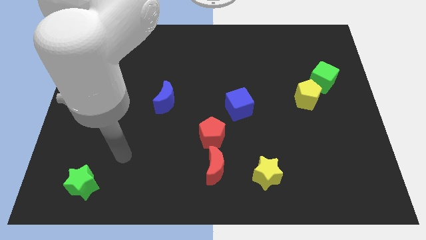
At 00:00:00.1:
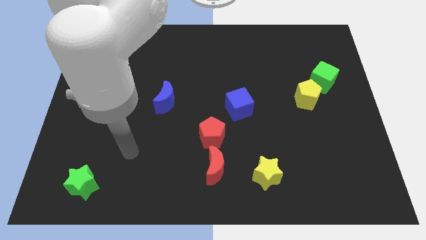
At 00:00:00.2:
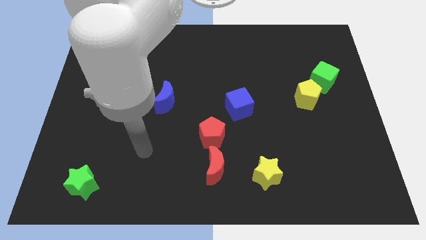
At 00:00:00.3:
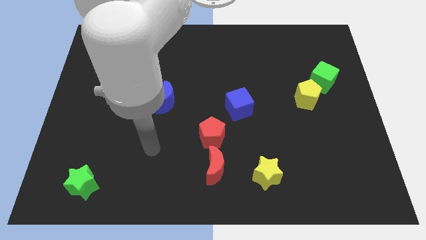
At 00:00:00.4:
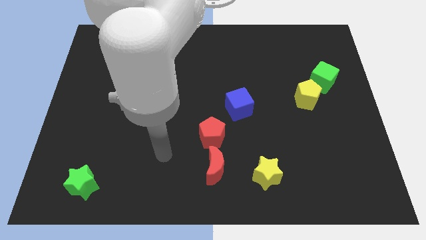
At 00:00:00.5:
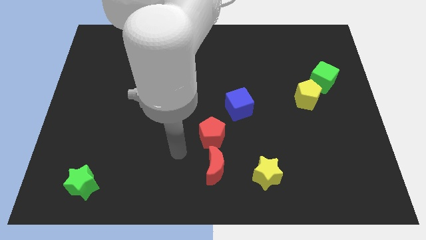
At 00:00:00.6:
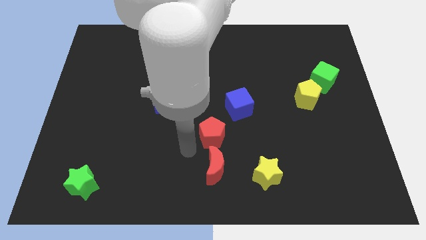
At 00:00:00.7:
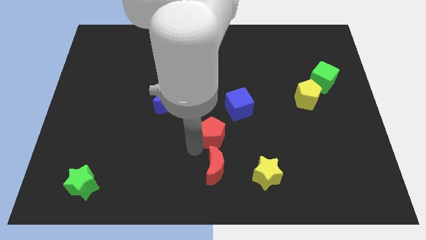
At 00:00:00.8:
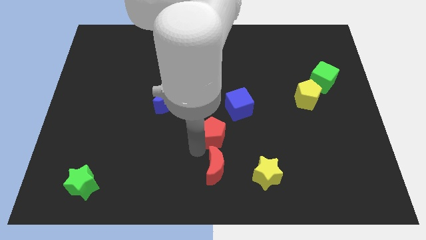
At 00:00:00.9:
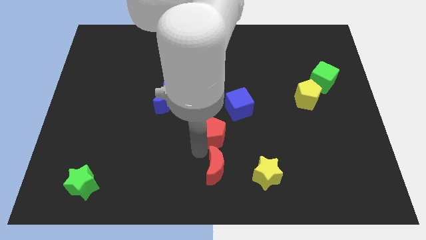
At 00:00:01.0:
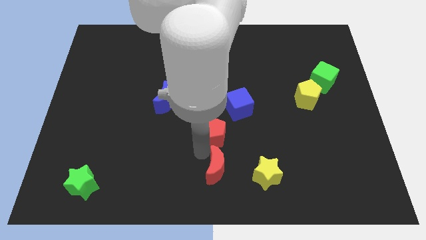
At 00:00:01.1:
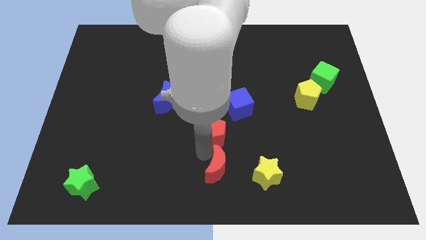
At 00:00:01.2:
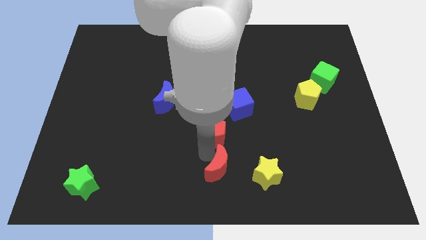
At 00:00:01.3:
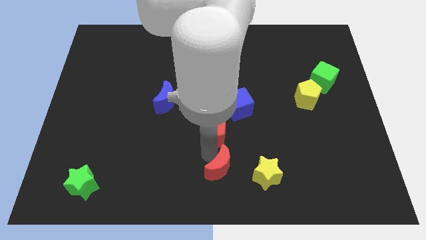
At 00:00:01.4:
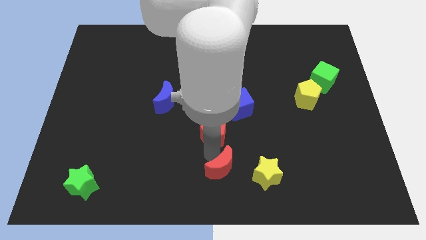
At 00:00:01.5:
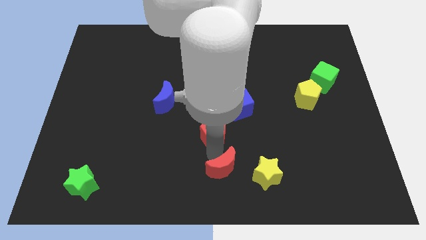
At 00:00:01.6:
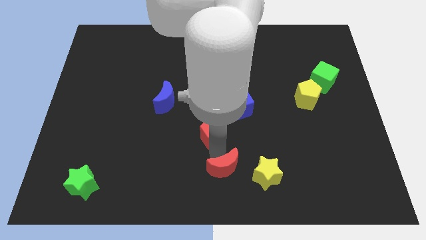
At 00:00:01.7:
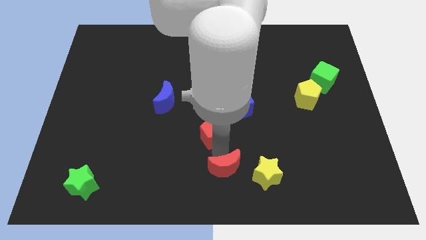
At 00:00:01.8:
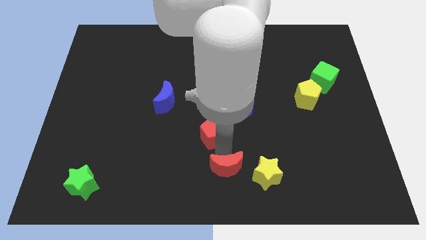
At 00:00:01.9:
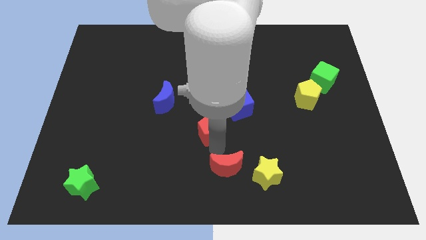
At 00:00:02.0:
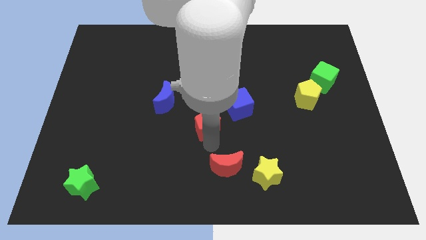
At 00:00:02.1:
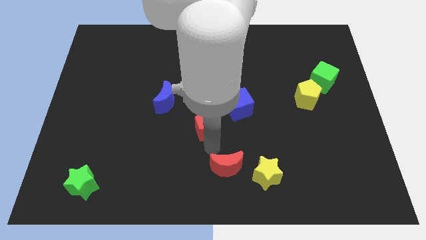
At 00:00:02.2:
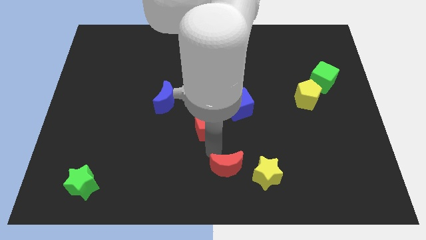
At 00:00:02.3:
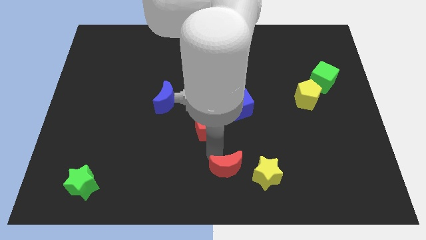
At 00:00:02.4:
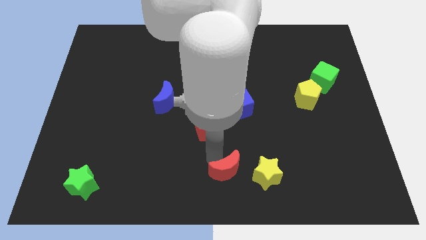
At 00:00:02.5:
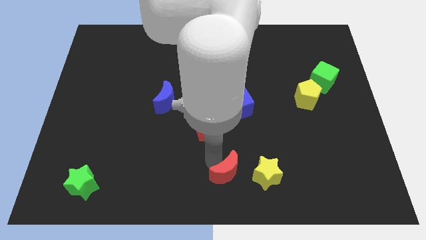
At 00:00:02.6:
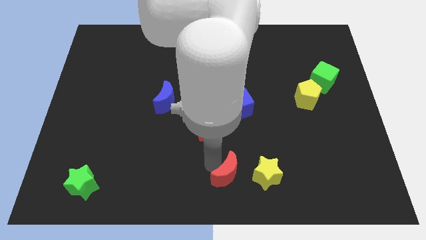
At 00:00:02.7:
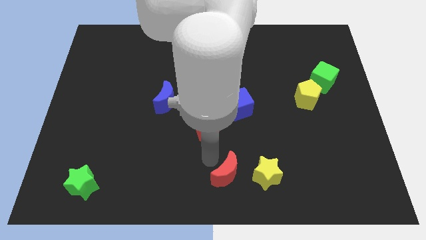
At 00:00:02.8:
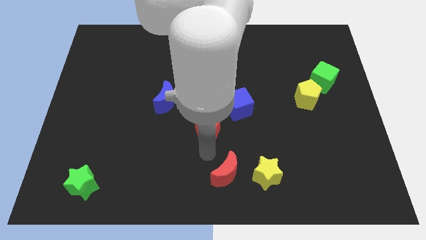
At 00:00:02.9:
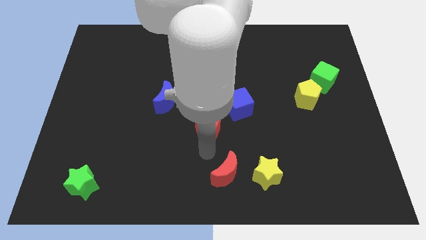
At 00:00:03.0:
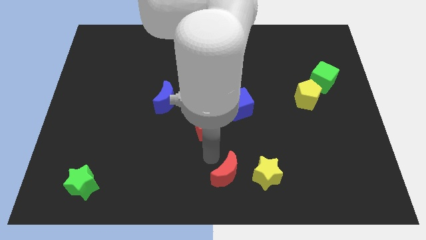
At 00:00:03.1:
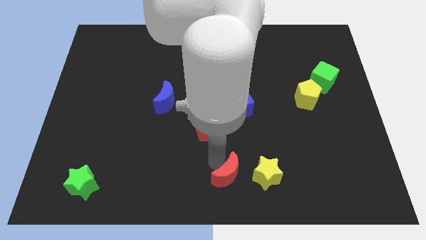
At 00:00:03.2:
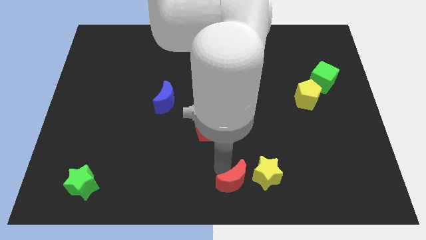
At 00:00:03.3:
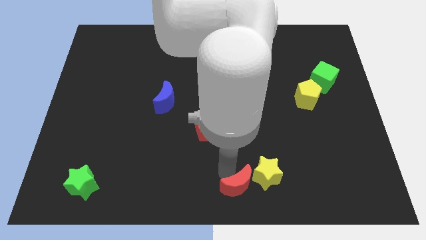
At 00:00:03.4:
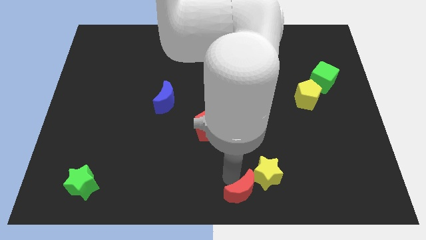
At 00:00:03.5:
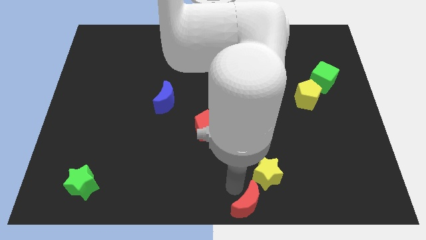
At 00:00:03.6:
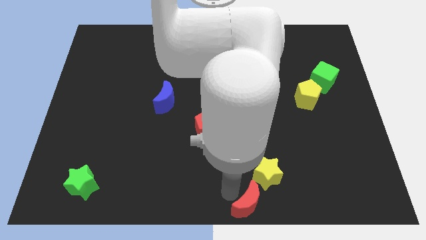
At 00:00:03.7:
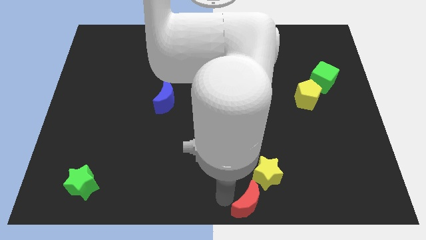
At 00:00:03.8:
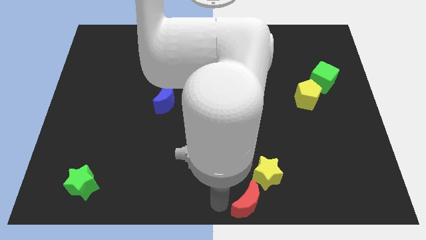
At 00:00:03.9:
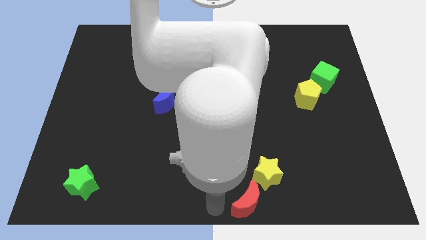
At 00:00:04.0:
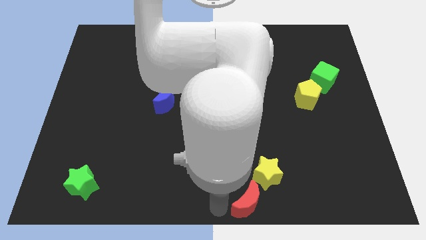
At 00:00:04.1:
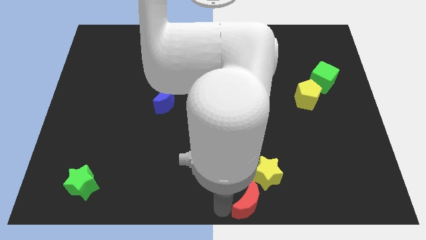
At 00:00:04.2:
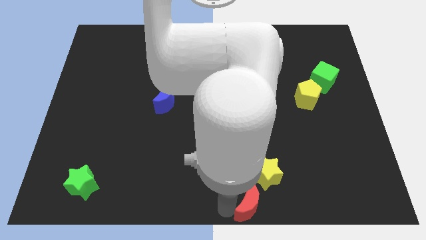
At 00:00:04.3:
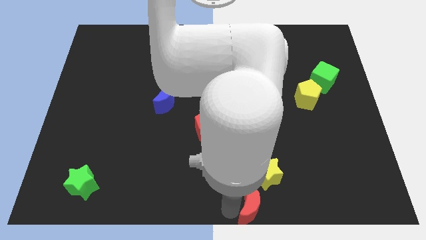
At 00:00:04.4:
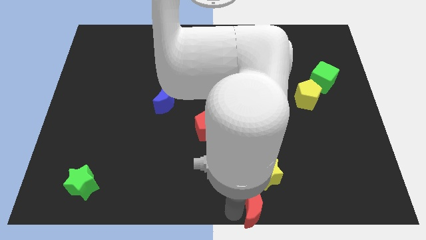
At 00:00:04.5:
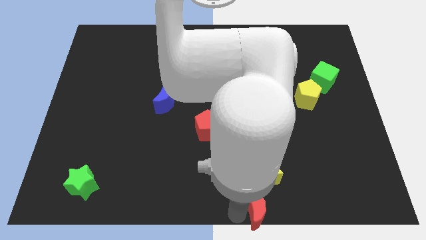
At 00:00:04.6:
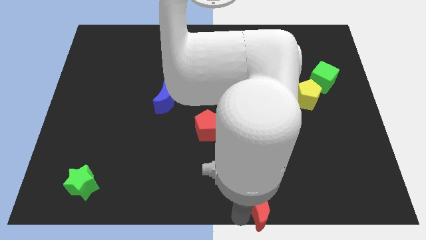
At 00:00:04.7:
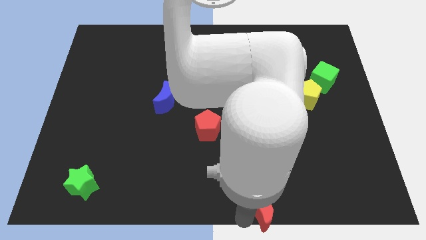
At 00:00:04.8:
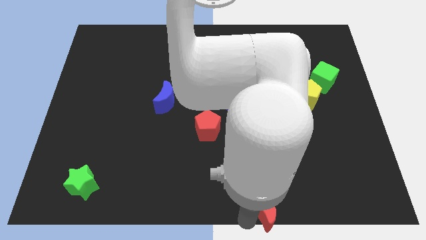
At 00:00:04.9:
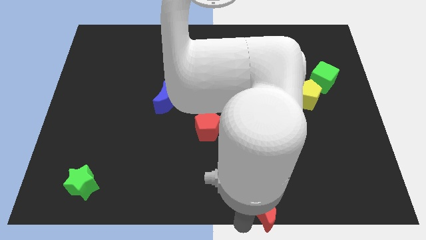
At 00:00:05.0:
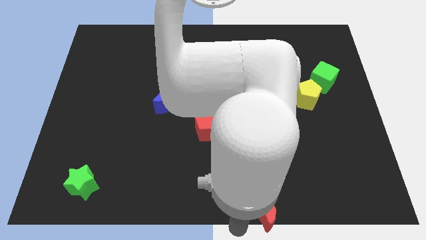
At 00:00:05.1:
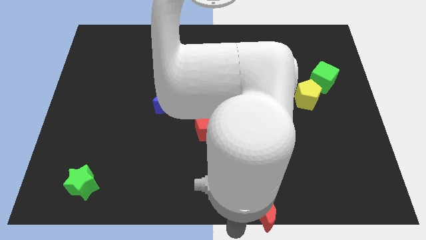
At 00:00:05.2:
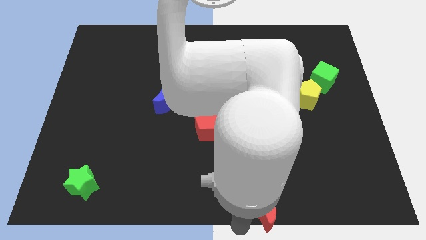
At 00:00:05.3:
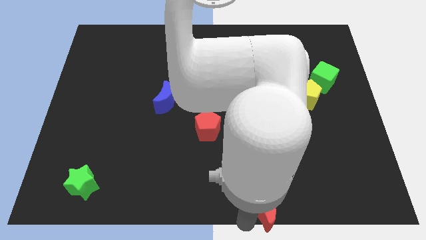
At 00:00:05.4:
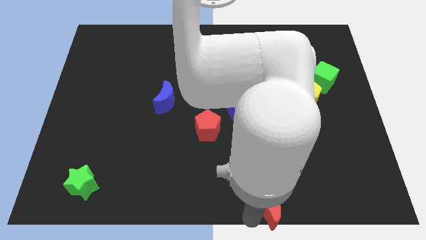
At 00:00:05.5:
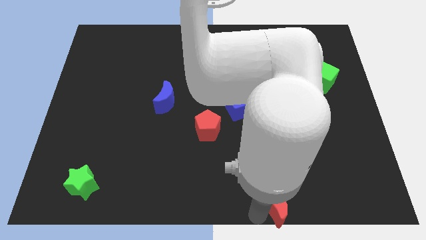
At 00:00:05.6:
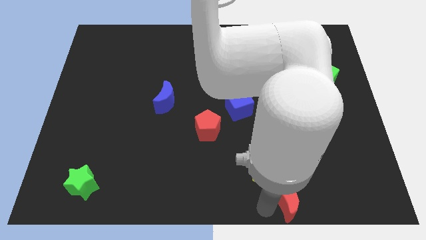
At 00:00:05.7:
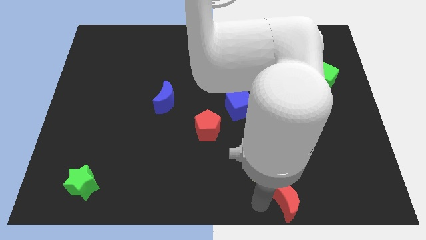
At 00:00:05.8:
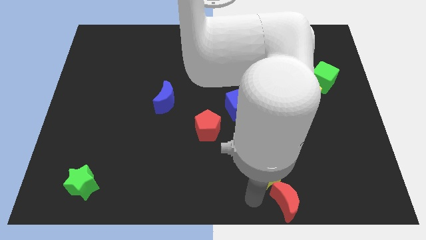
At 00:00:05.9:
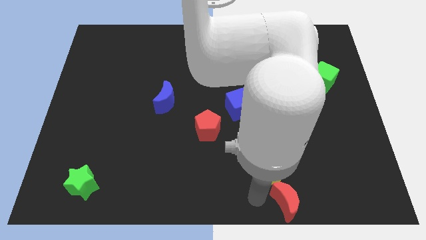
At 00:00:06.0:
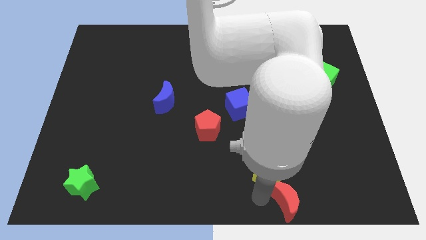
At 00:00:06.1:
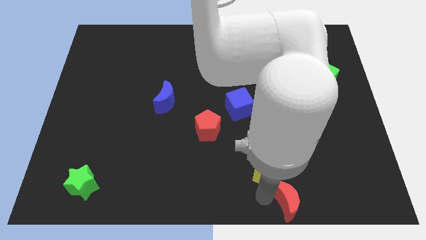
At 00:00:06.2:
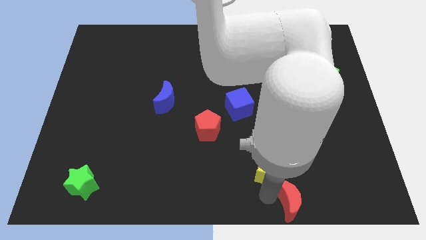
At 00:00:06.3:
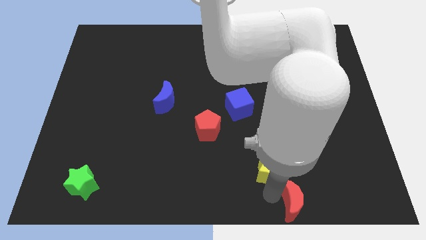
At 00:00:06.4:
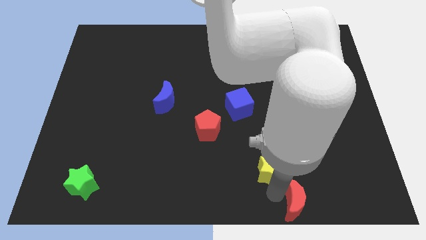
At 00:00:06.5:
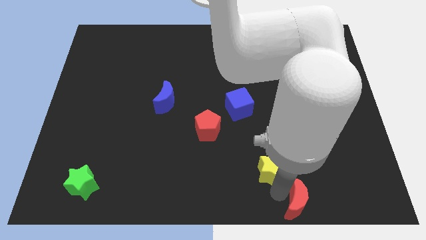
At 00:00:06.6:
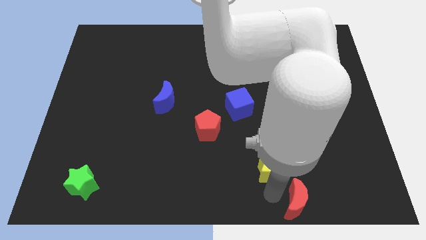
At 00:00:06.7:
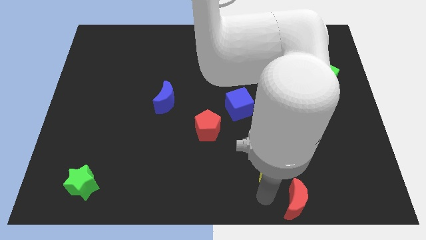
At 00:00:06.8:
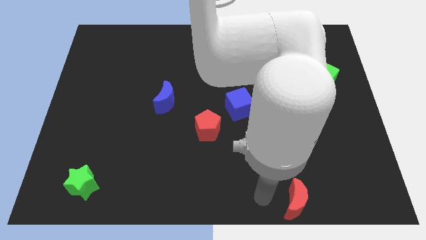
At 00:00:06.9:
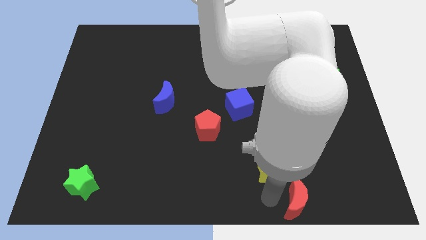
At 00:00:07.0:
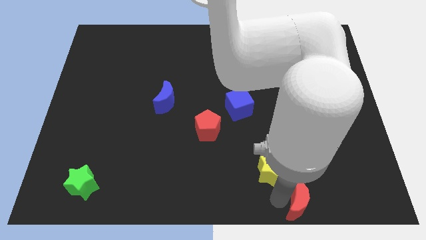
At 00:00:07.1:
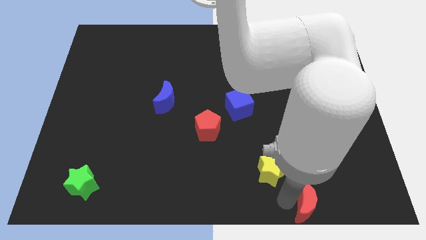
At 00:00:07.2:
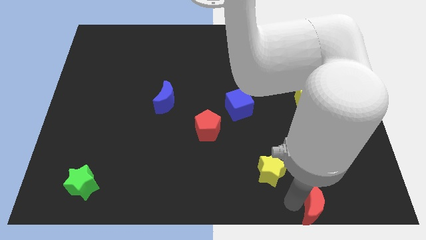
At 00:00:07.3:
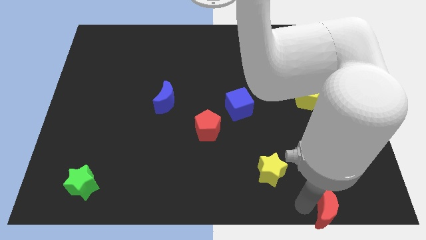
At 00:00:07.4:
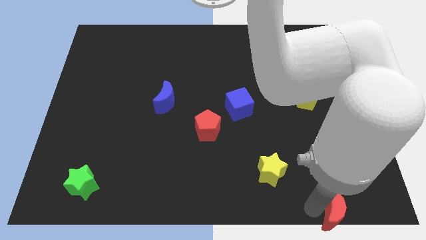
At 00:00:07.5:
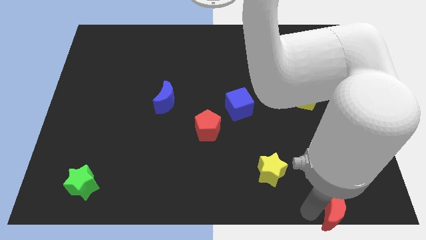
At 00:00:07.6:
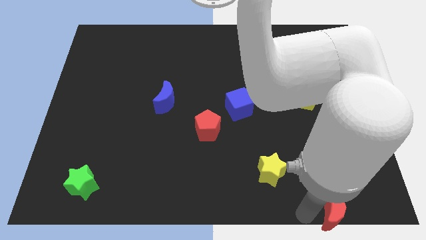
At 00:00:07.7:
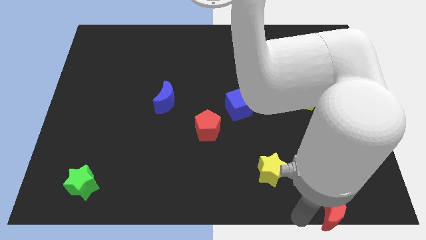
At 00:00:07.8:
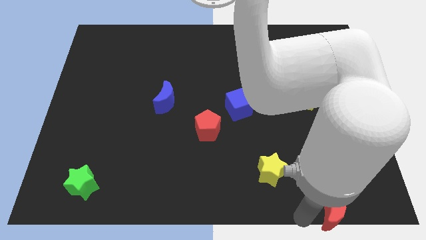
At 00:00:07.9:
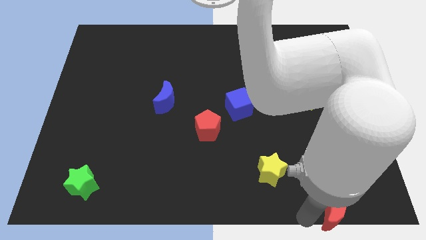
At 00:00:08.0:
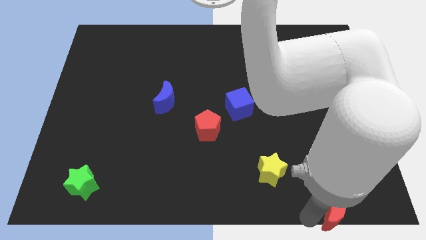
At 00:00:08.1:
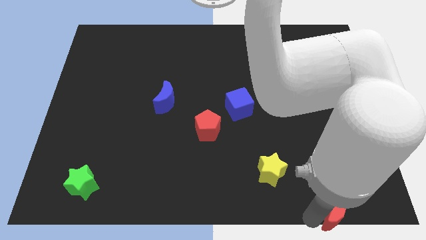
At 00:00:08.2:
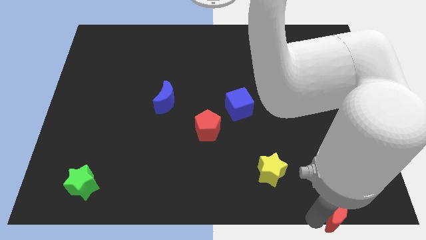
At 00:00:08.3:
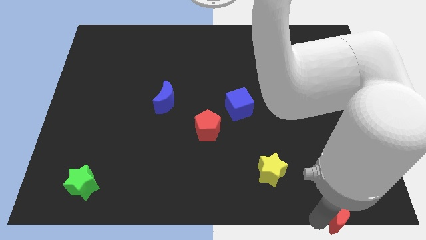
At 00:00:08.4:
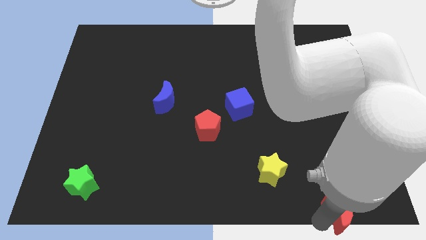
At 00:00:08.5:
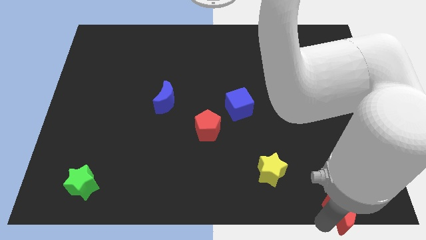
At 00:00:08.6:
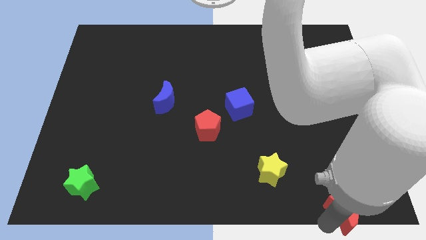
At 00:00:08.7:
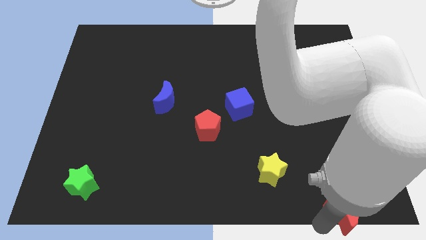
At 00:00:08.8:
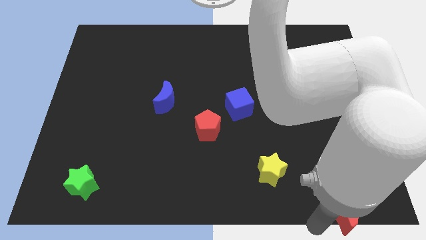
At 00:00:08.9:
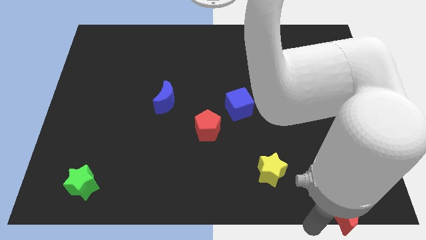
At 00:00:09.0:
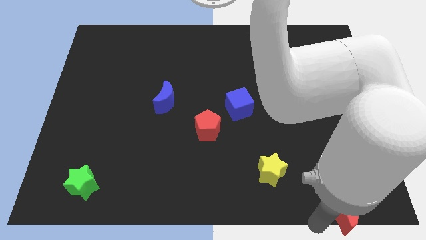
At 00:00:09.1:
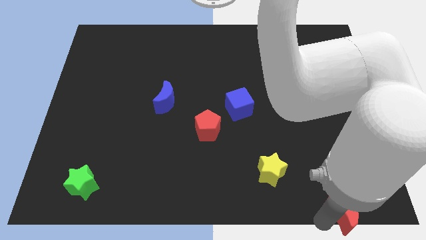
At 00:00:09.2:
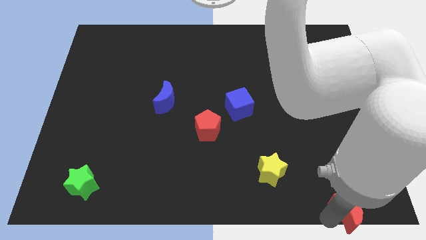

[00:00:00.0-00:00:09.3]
move the red moon to the lower right corner
